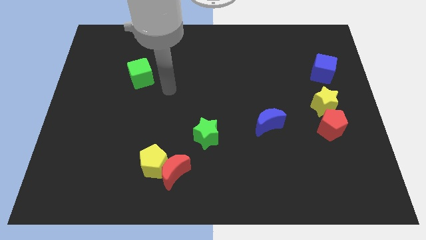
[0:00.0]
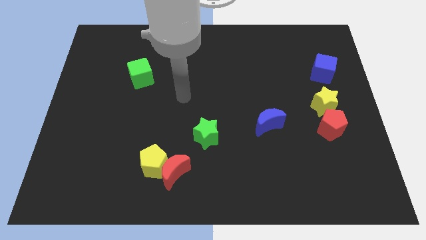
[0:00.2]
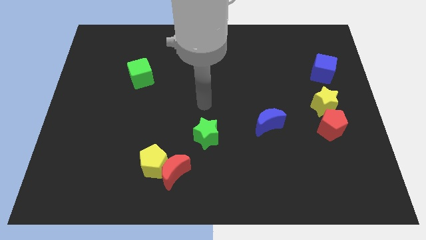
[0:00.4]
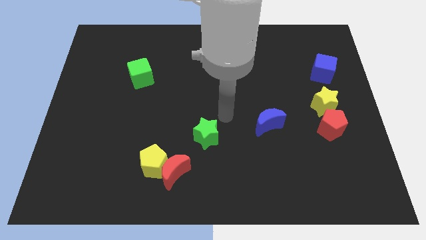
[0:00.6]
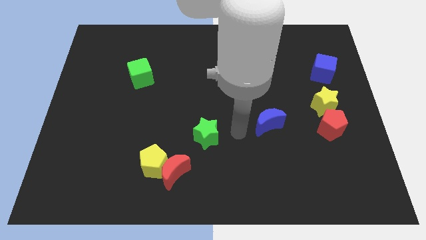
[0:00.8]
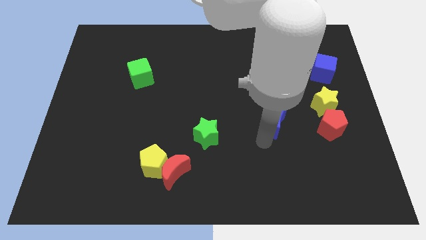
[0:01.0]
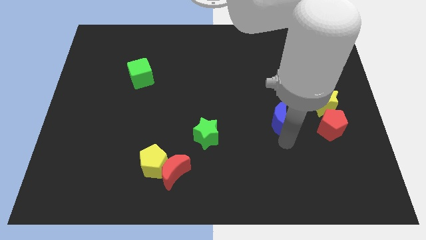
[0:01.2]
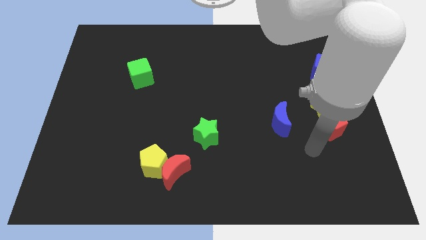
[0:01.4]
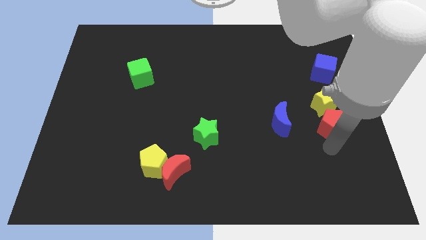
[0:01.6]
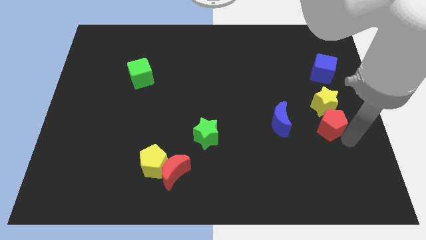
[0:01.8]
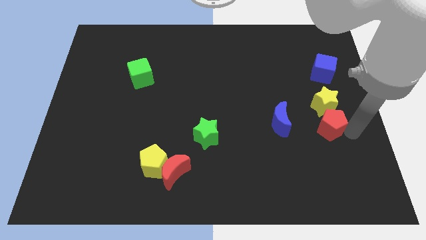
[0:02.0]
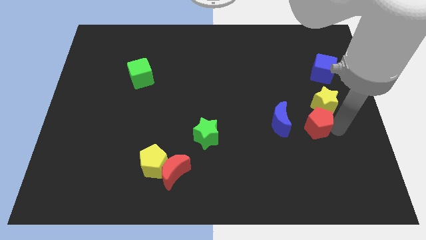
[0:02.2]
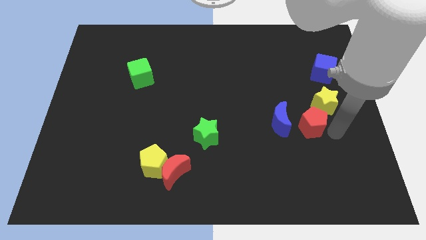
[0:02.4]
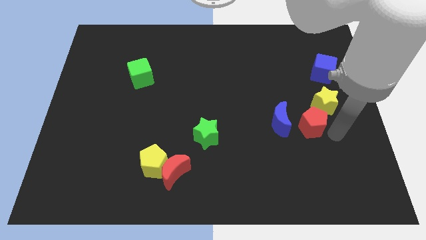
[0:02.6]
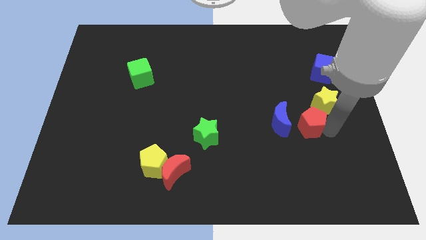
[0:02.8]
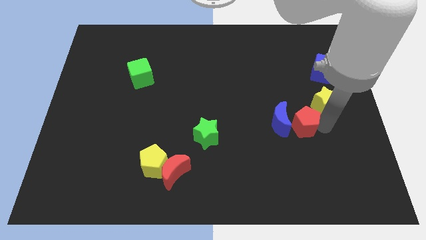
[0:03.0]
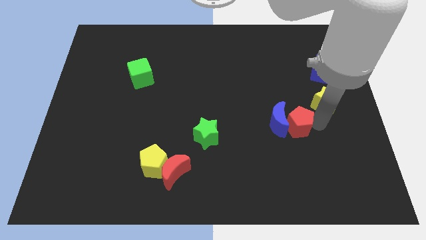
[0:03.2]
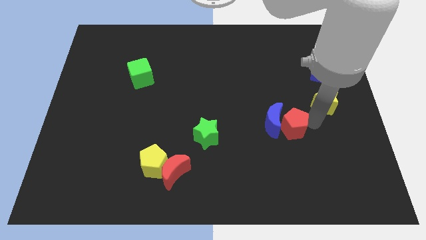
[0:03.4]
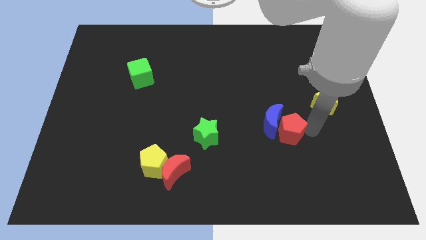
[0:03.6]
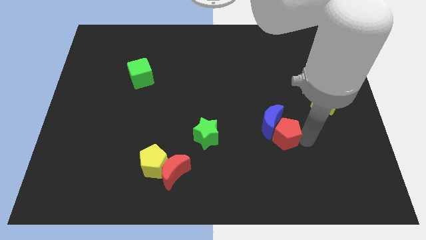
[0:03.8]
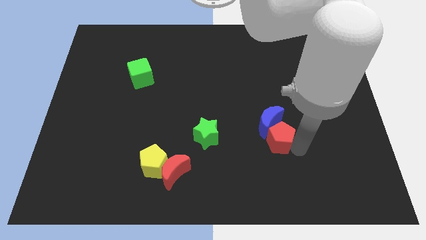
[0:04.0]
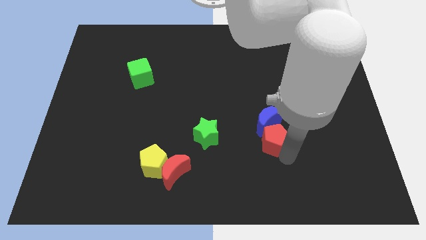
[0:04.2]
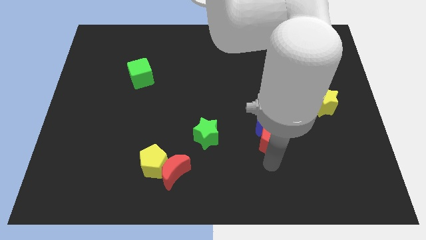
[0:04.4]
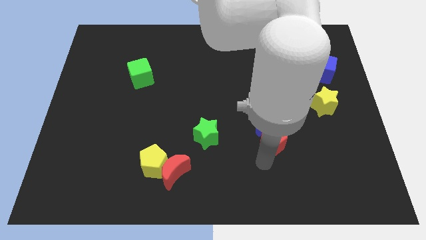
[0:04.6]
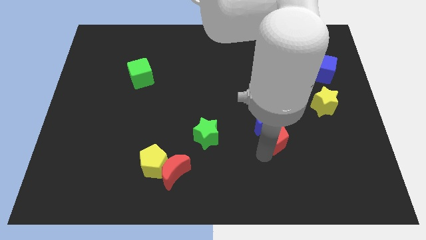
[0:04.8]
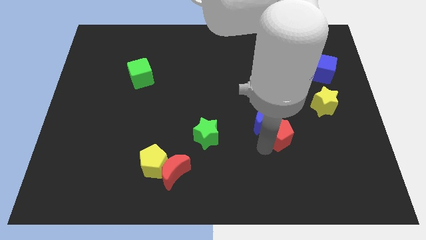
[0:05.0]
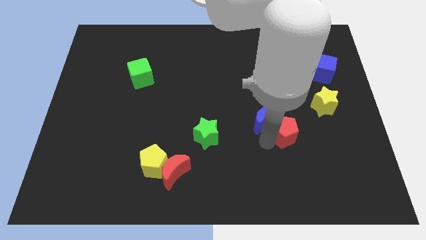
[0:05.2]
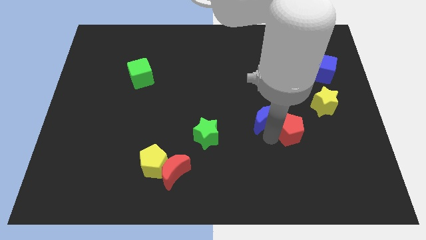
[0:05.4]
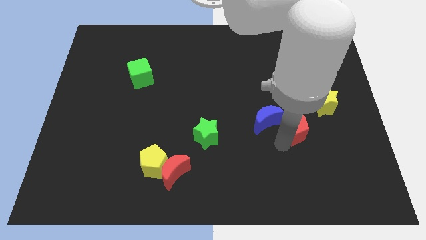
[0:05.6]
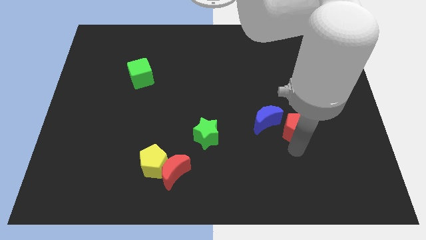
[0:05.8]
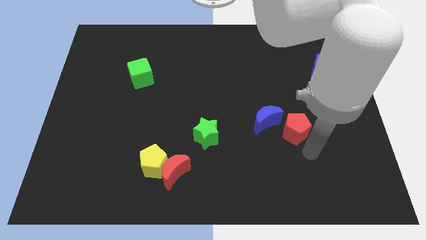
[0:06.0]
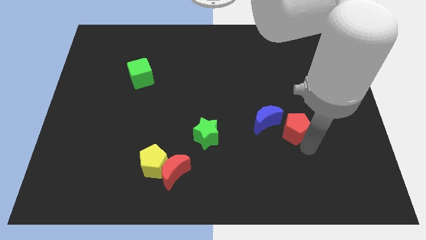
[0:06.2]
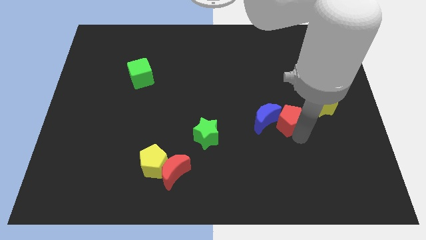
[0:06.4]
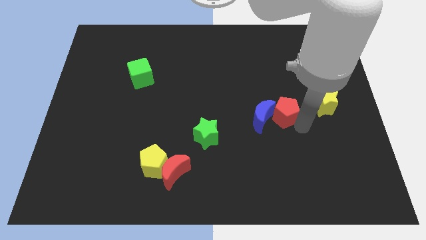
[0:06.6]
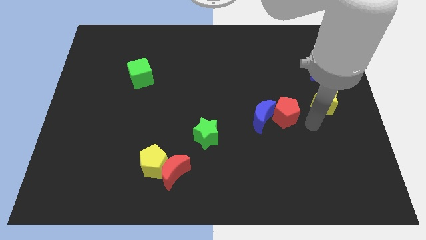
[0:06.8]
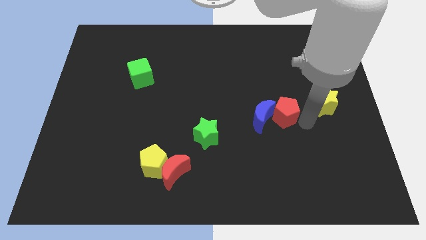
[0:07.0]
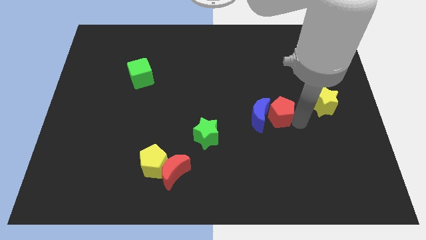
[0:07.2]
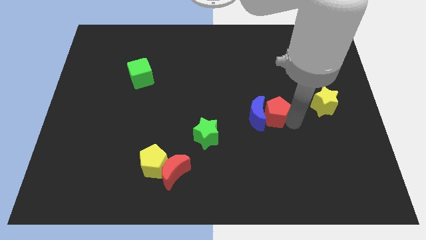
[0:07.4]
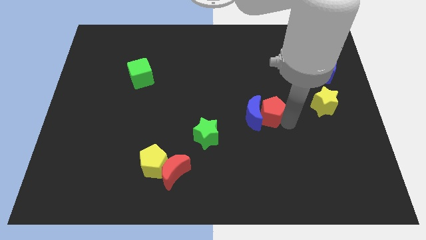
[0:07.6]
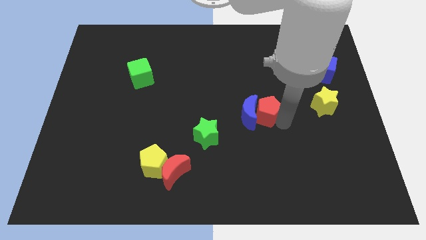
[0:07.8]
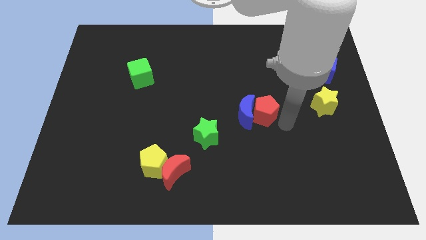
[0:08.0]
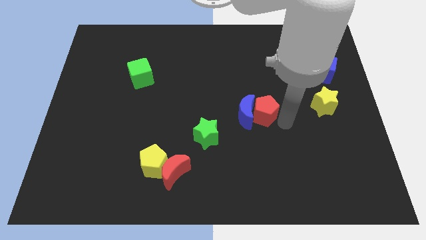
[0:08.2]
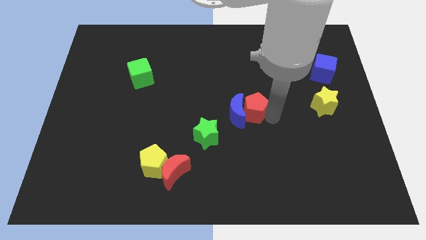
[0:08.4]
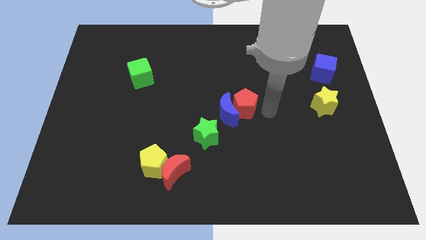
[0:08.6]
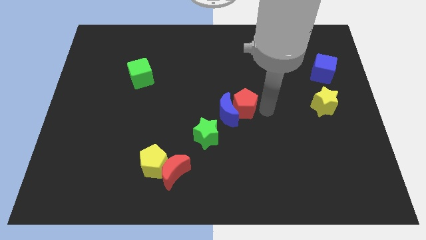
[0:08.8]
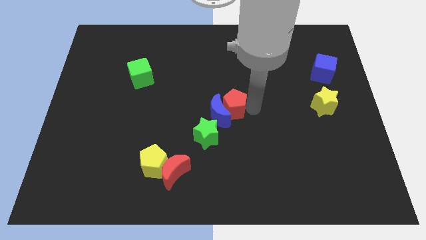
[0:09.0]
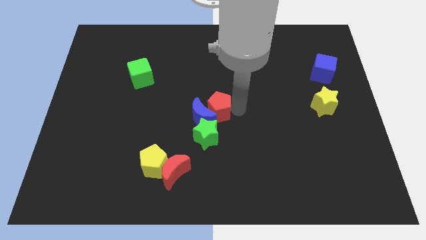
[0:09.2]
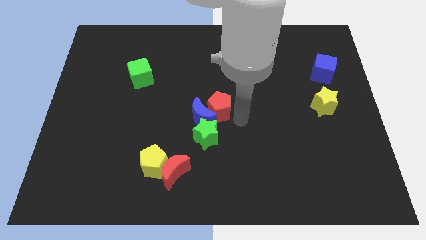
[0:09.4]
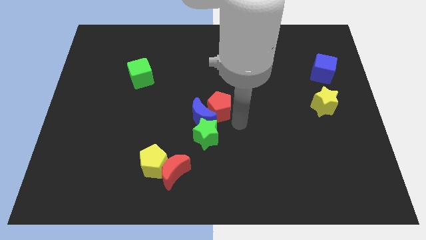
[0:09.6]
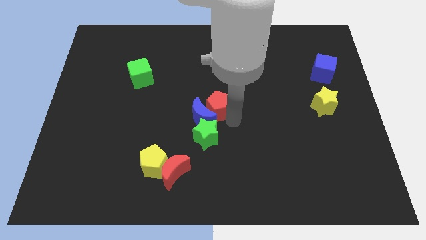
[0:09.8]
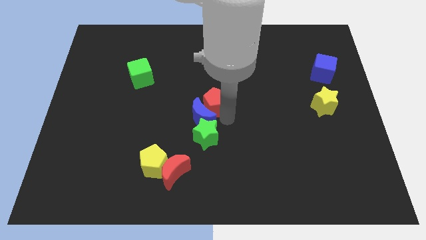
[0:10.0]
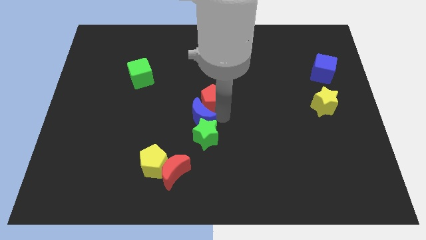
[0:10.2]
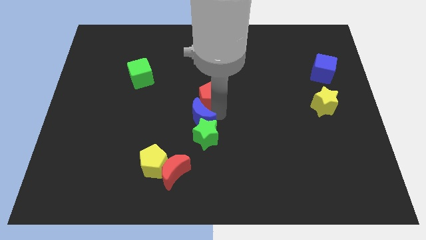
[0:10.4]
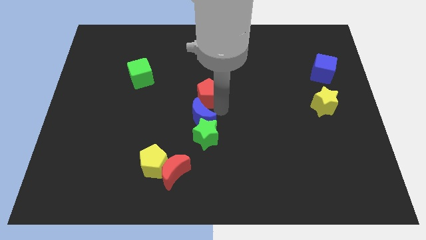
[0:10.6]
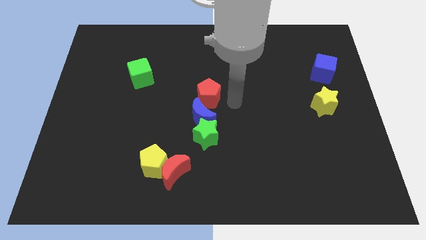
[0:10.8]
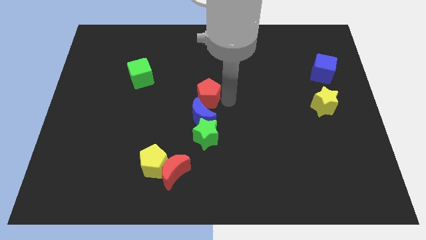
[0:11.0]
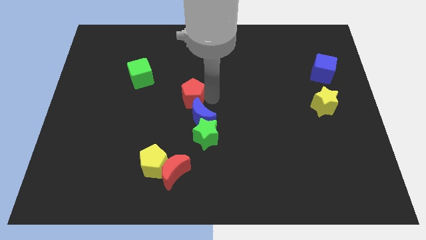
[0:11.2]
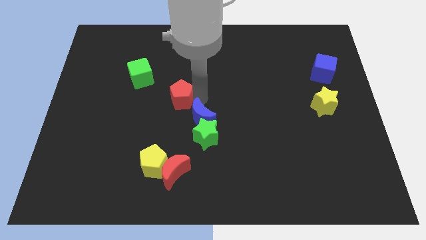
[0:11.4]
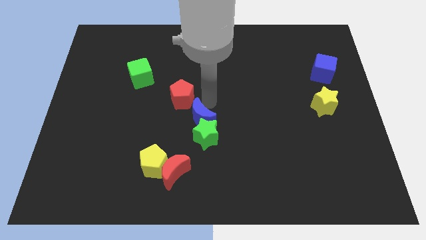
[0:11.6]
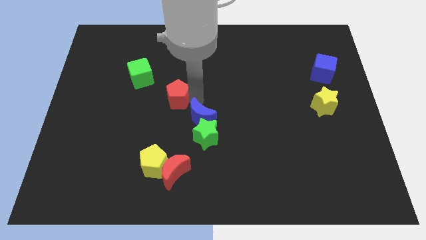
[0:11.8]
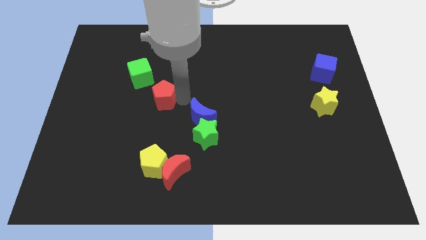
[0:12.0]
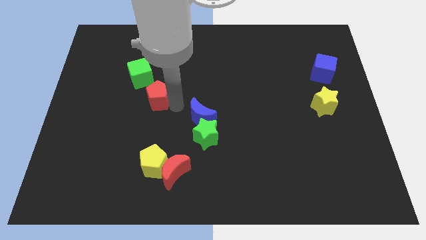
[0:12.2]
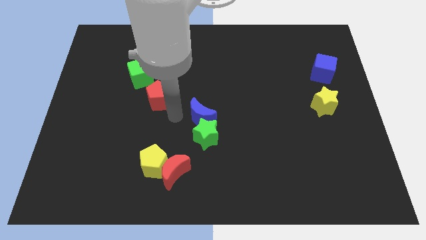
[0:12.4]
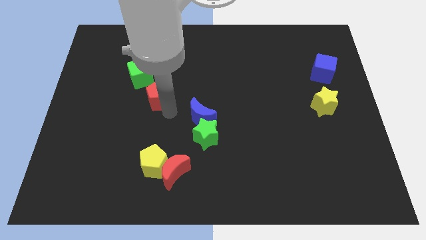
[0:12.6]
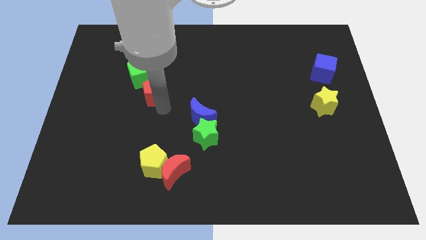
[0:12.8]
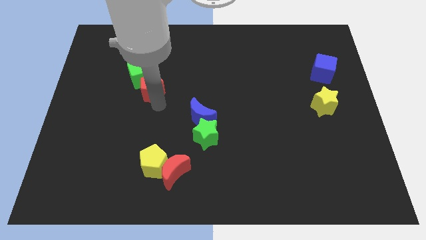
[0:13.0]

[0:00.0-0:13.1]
push the red pentagon next to the green cube
